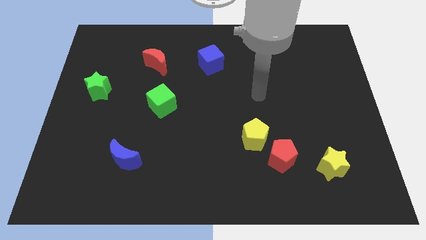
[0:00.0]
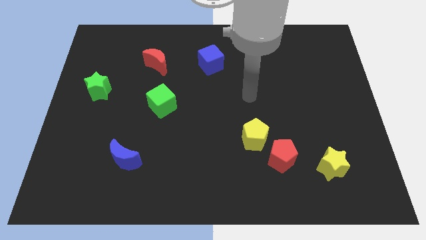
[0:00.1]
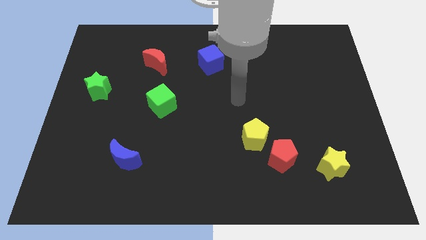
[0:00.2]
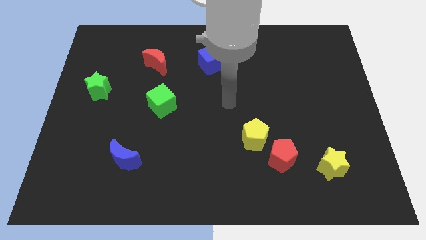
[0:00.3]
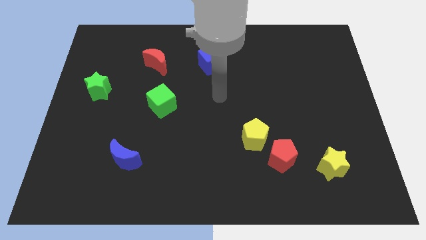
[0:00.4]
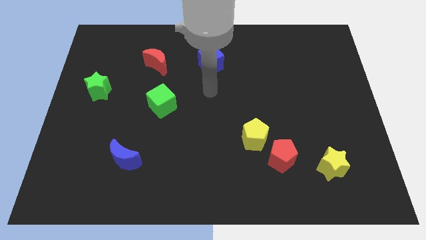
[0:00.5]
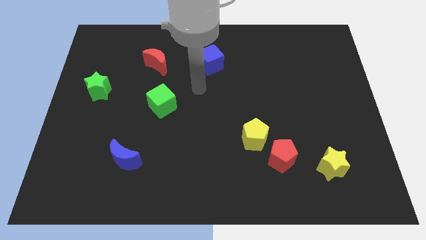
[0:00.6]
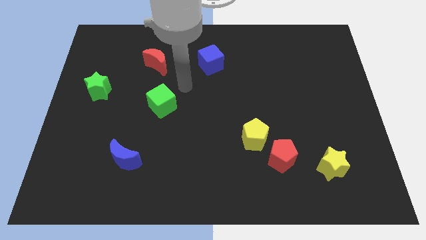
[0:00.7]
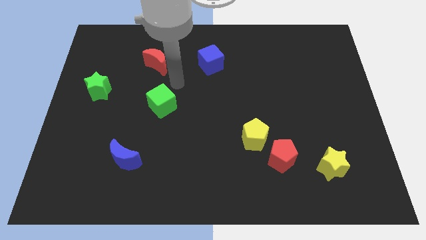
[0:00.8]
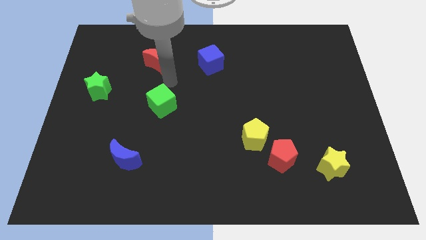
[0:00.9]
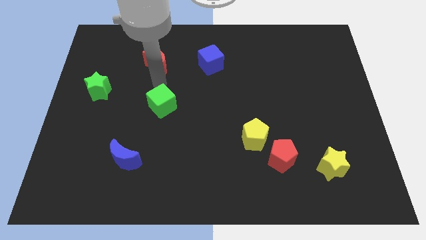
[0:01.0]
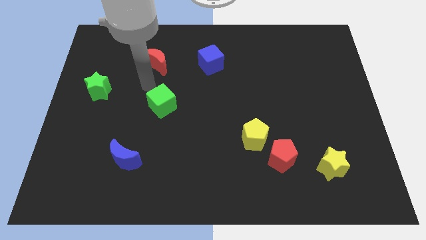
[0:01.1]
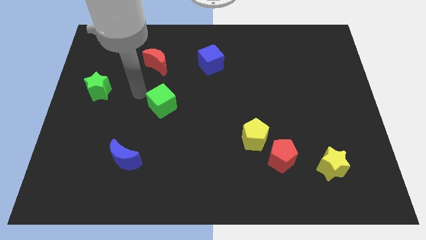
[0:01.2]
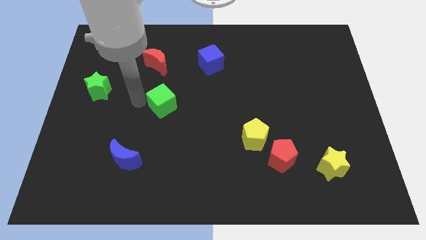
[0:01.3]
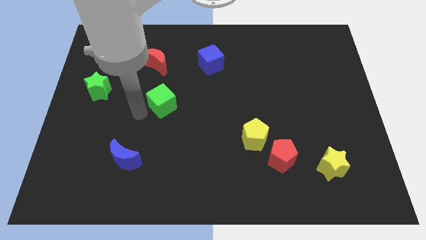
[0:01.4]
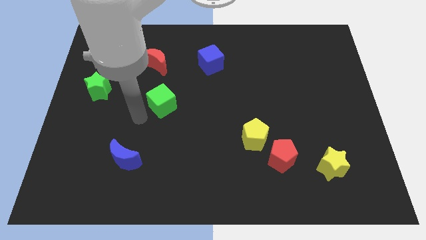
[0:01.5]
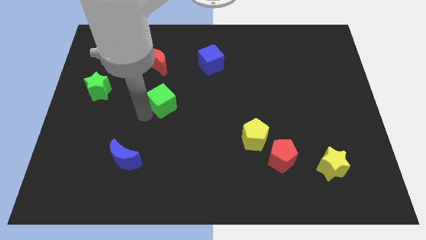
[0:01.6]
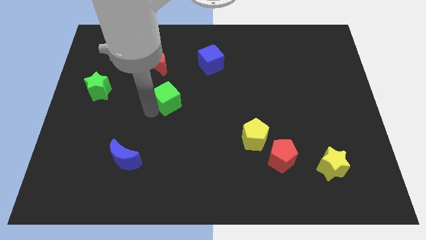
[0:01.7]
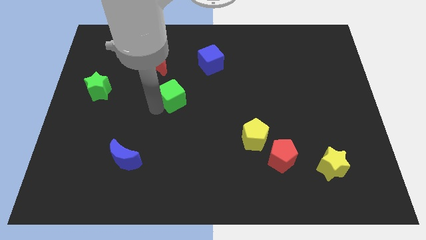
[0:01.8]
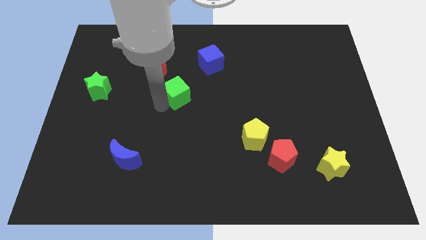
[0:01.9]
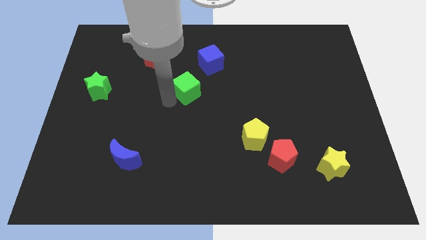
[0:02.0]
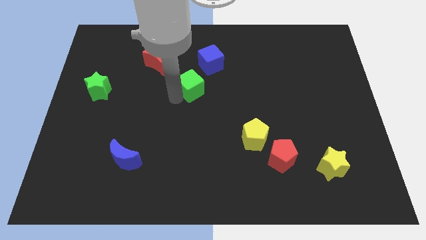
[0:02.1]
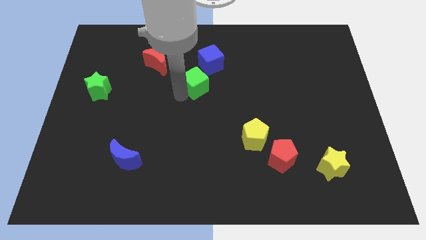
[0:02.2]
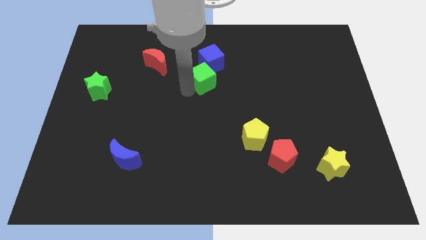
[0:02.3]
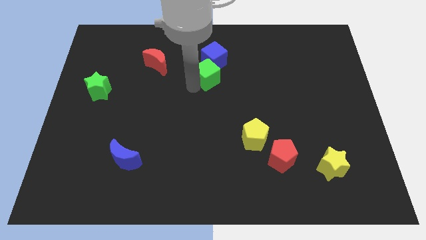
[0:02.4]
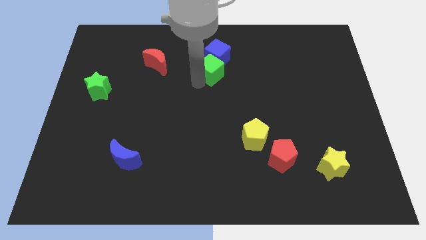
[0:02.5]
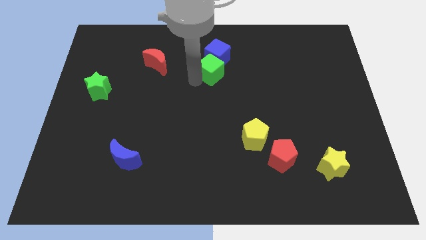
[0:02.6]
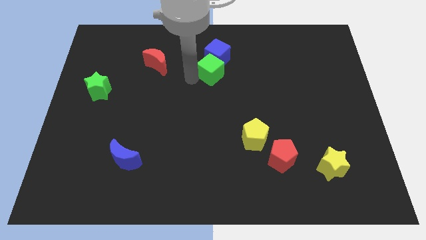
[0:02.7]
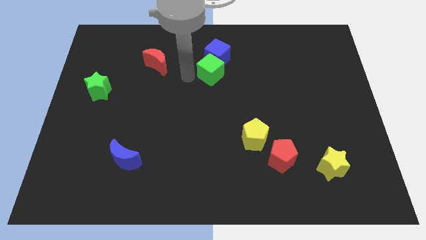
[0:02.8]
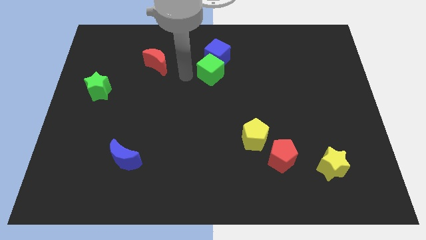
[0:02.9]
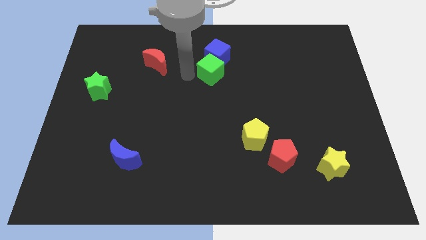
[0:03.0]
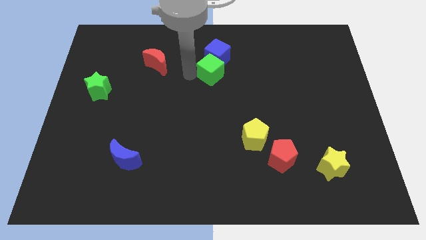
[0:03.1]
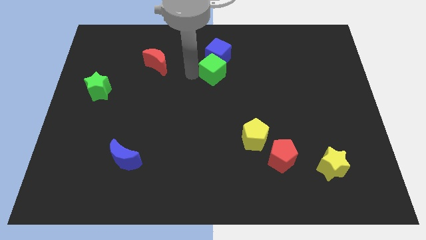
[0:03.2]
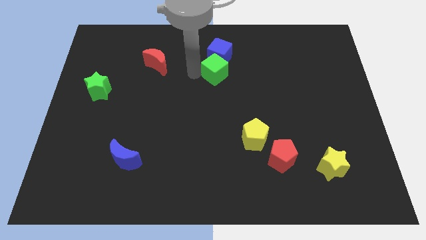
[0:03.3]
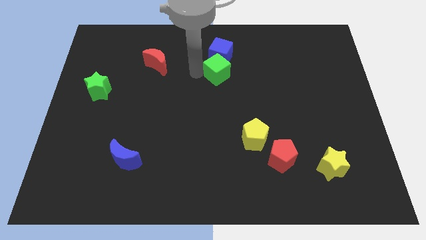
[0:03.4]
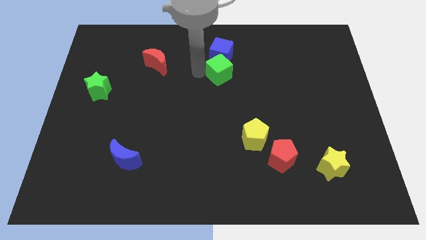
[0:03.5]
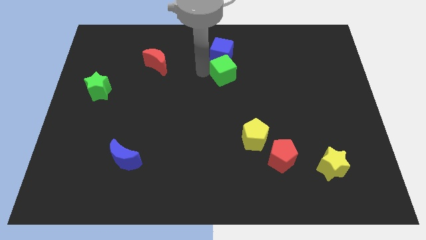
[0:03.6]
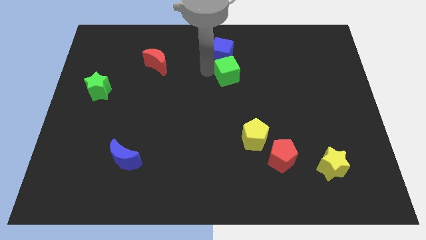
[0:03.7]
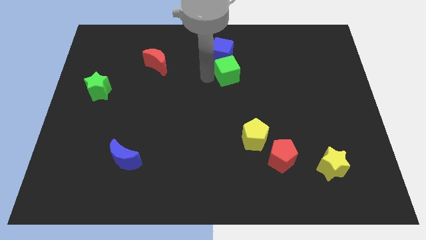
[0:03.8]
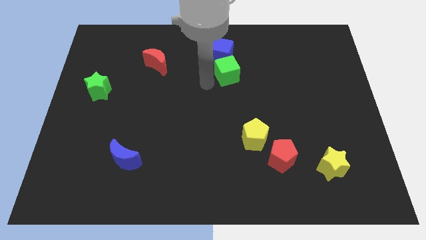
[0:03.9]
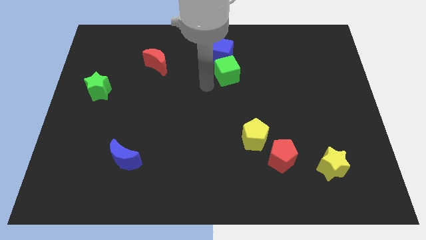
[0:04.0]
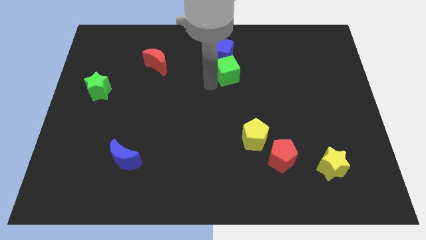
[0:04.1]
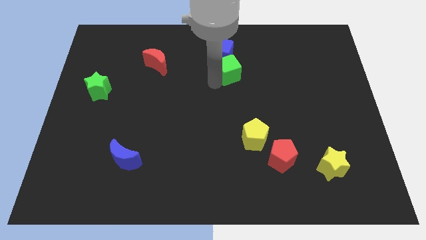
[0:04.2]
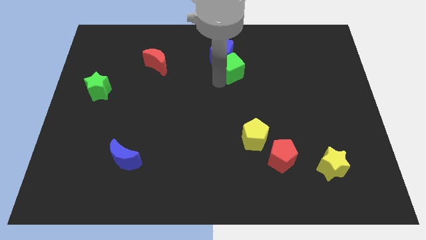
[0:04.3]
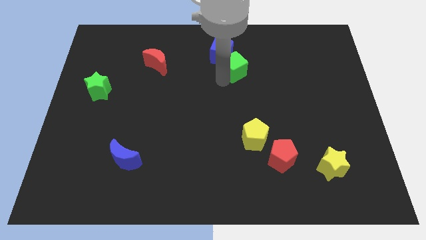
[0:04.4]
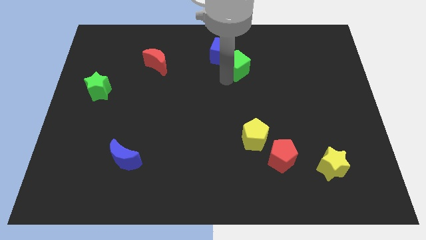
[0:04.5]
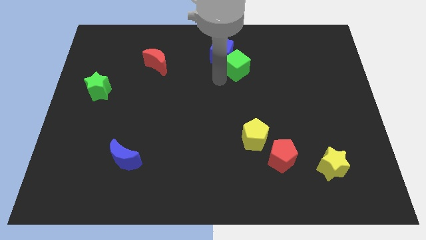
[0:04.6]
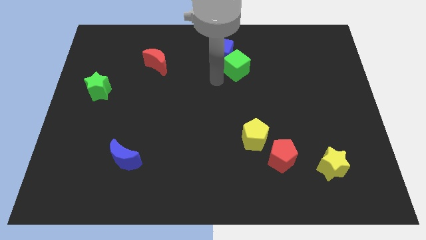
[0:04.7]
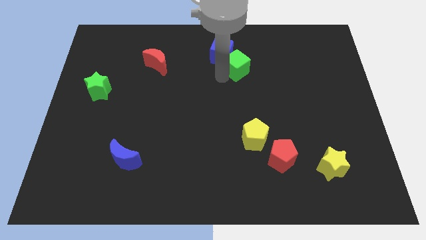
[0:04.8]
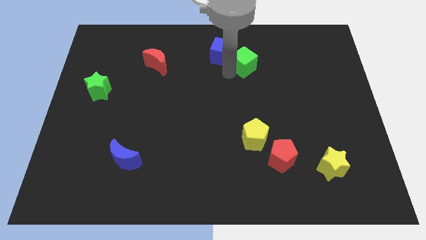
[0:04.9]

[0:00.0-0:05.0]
put the green cube to the right side of the blue cube

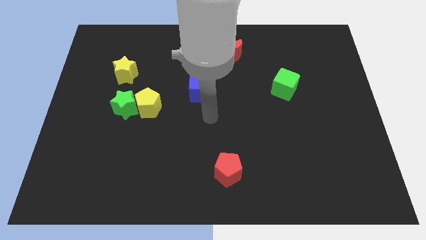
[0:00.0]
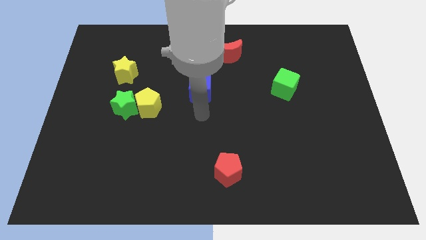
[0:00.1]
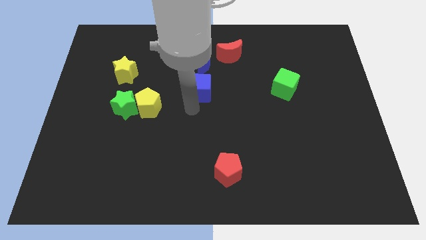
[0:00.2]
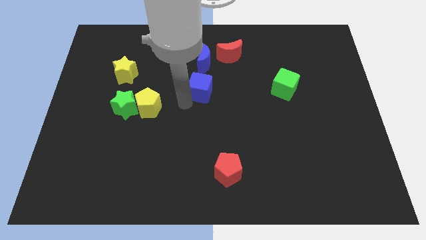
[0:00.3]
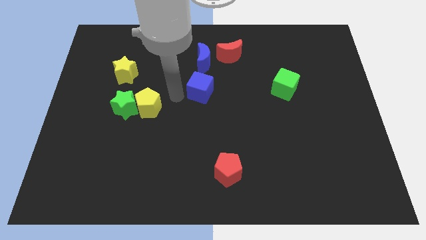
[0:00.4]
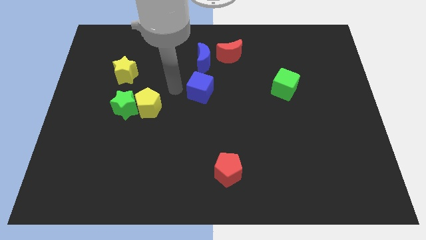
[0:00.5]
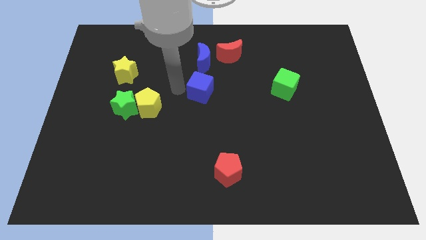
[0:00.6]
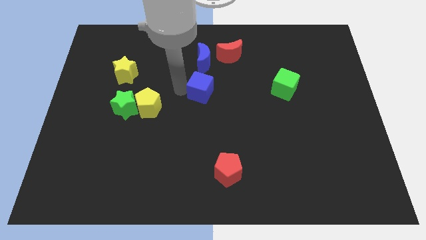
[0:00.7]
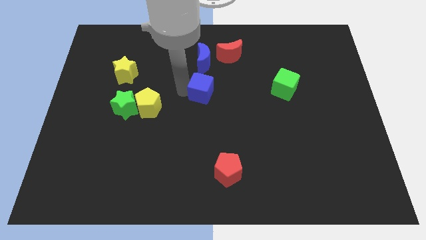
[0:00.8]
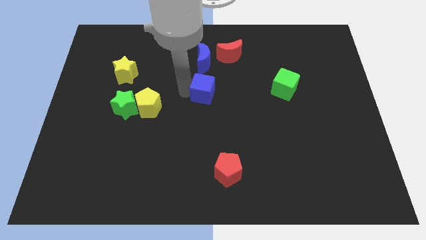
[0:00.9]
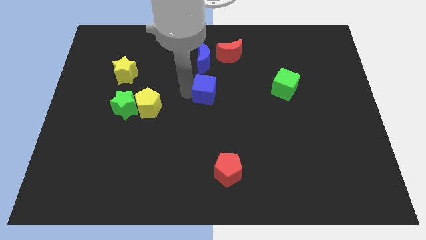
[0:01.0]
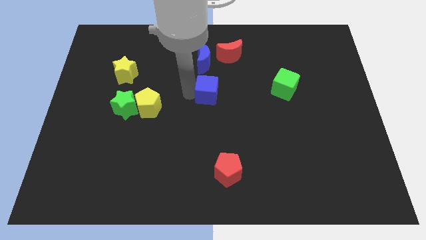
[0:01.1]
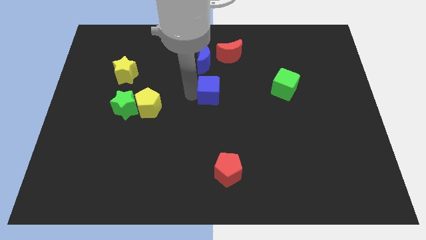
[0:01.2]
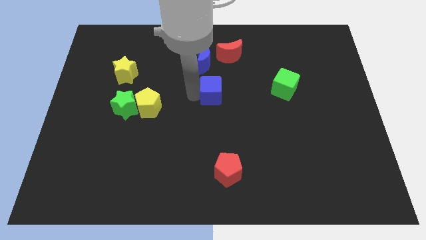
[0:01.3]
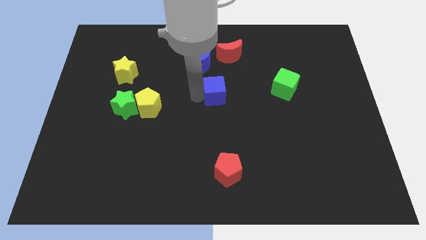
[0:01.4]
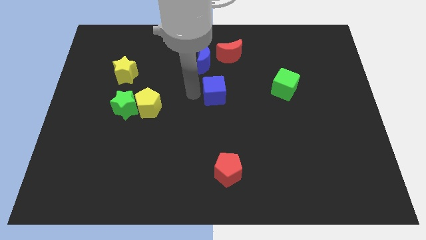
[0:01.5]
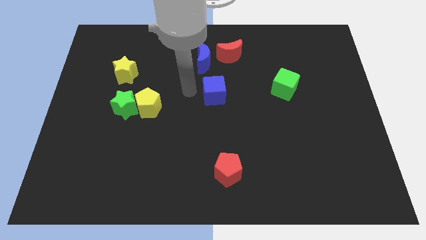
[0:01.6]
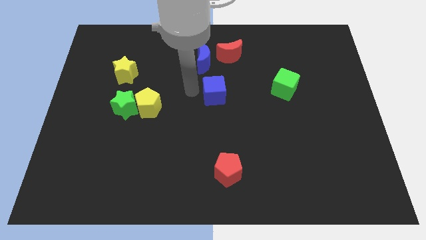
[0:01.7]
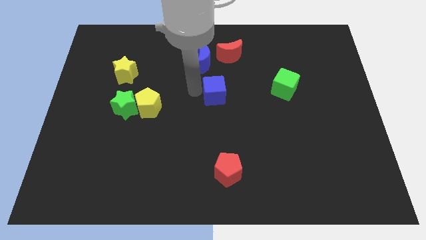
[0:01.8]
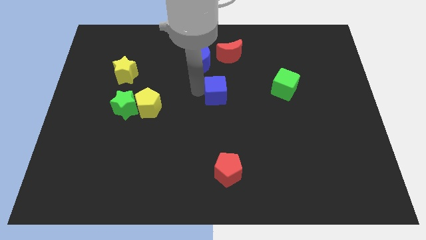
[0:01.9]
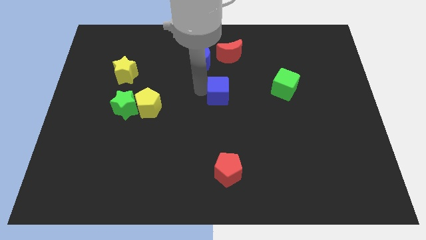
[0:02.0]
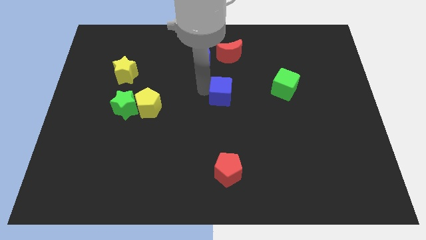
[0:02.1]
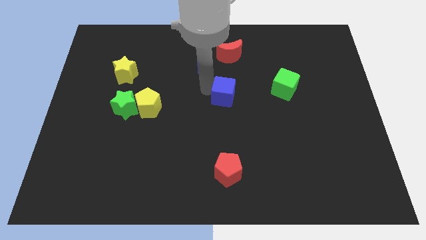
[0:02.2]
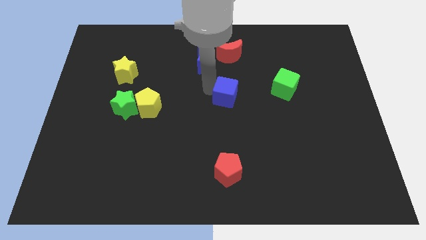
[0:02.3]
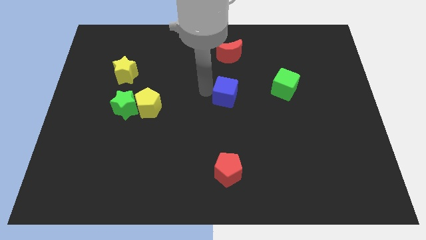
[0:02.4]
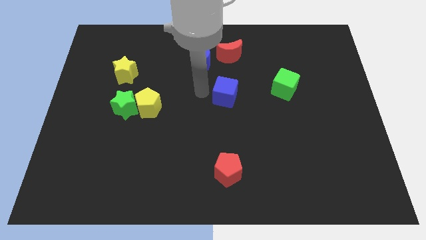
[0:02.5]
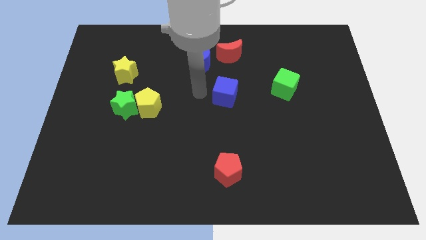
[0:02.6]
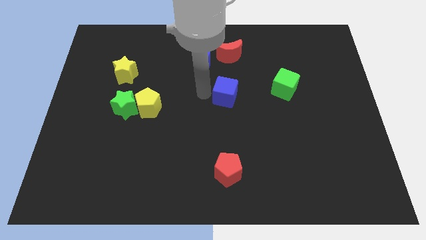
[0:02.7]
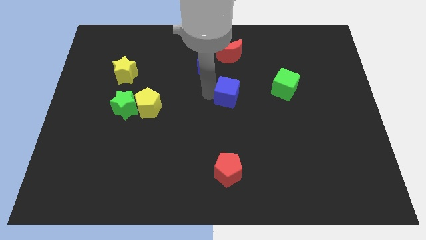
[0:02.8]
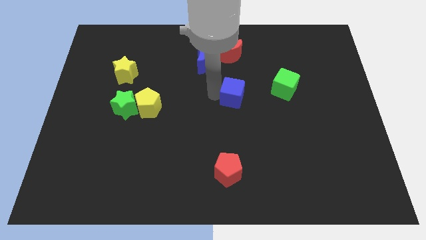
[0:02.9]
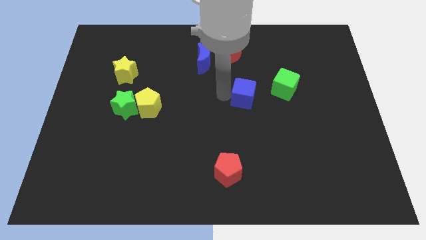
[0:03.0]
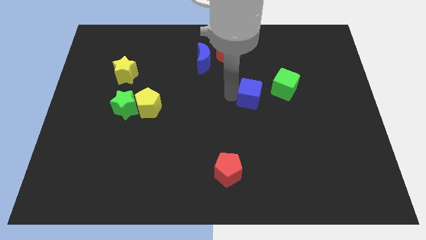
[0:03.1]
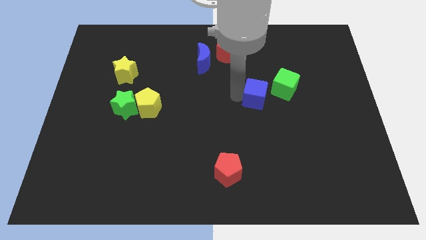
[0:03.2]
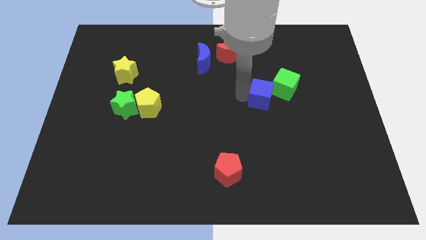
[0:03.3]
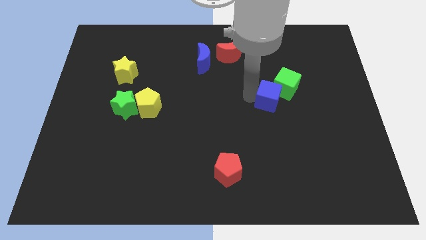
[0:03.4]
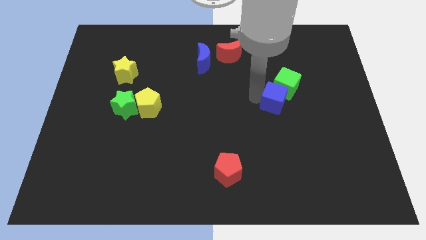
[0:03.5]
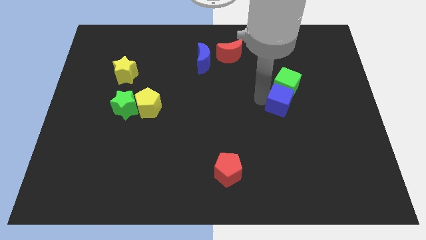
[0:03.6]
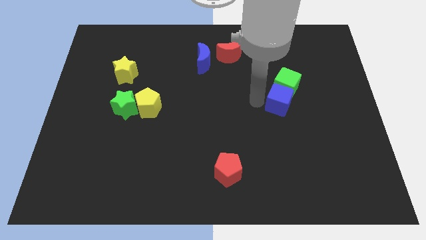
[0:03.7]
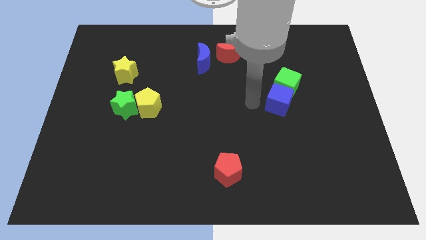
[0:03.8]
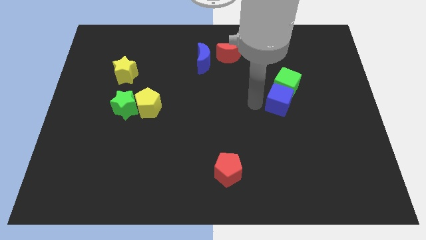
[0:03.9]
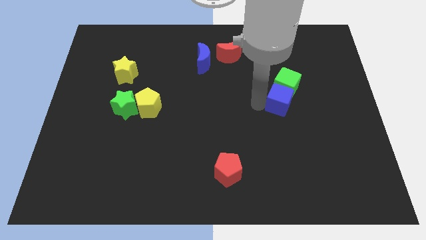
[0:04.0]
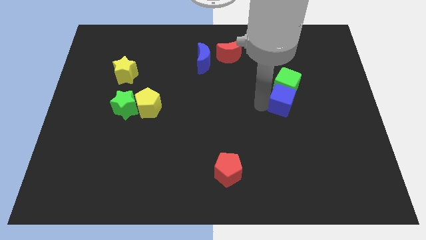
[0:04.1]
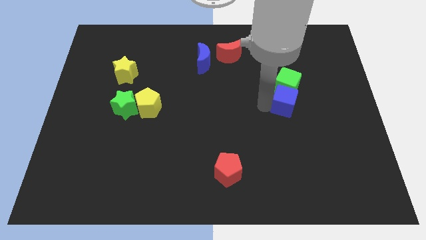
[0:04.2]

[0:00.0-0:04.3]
push the blue cube diagonally down and to the right of the green cube
